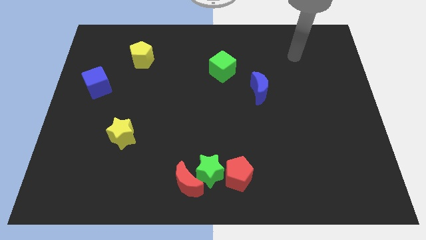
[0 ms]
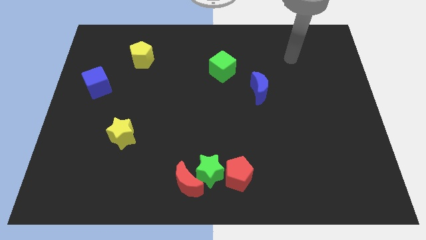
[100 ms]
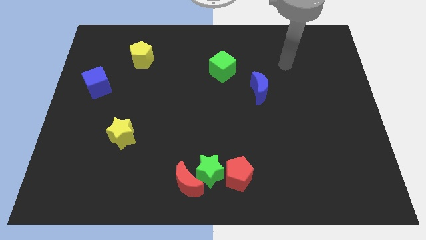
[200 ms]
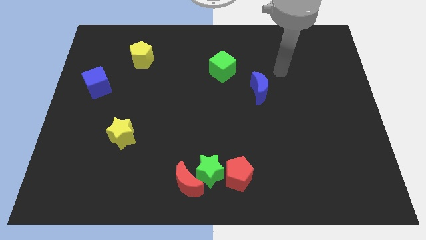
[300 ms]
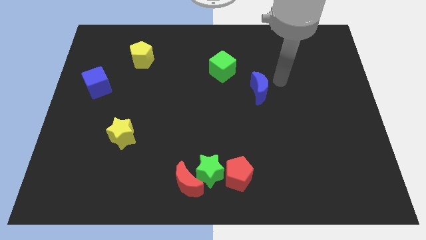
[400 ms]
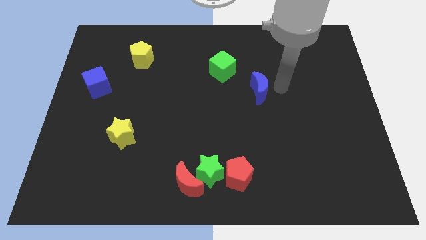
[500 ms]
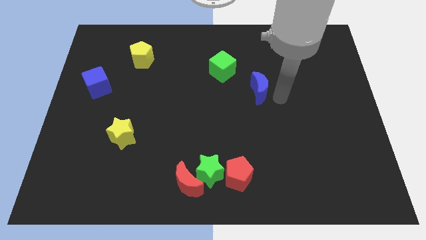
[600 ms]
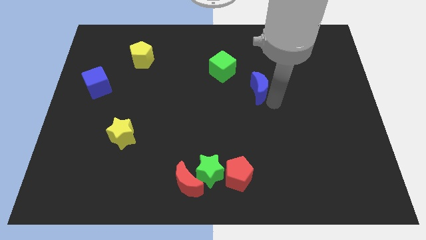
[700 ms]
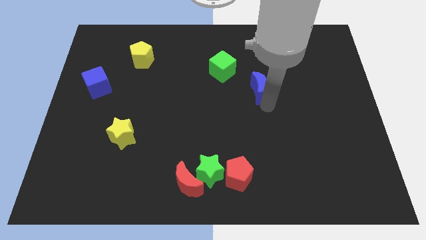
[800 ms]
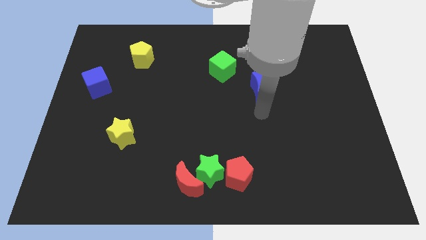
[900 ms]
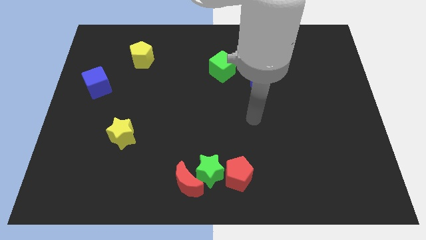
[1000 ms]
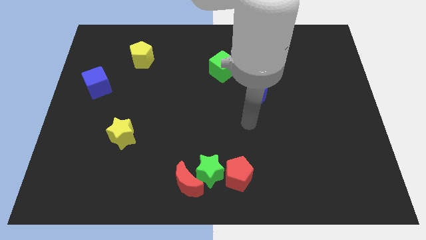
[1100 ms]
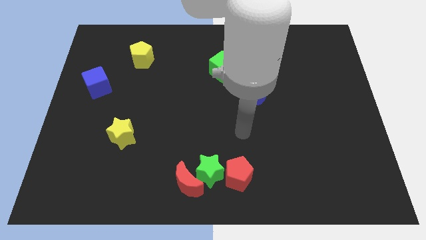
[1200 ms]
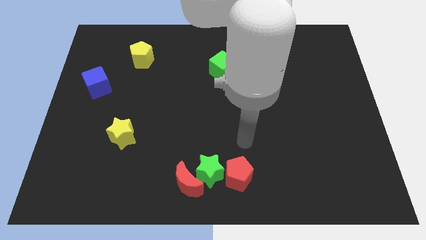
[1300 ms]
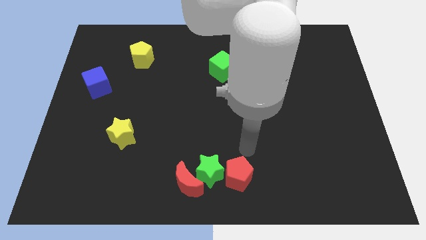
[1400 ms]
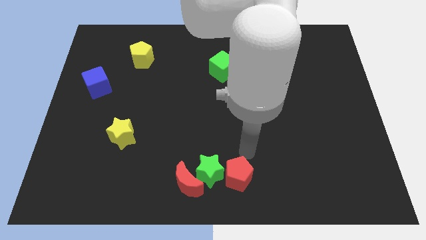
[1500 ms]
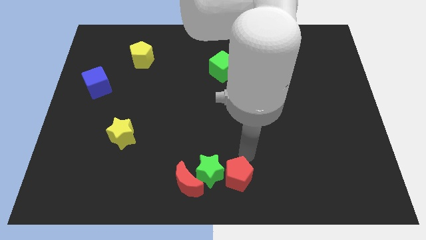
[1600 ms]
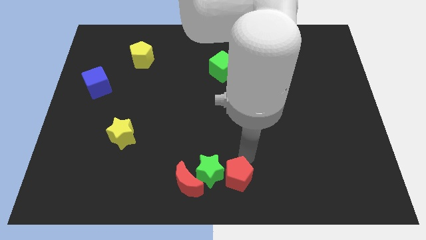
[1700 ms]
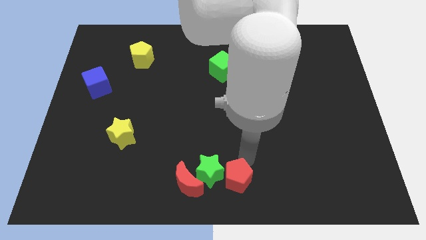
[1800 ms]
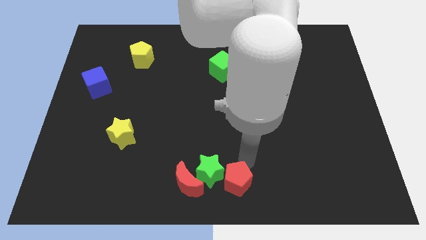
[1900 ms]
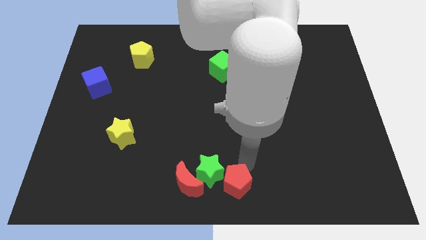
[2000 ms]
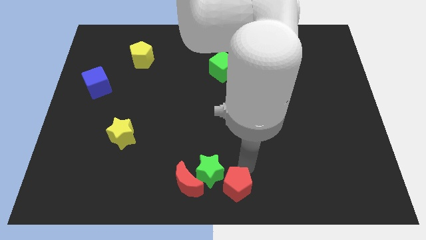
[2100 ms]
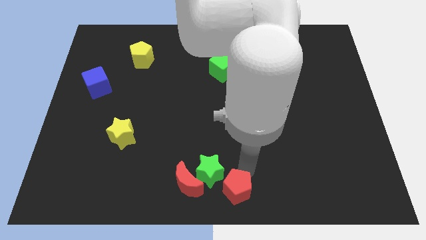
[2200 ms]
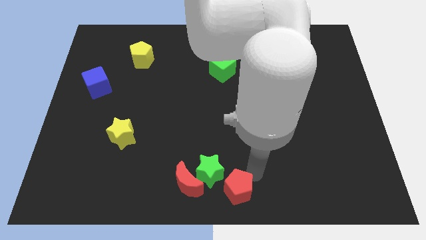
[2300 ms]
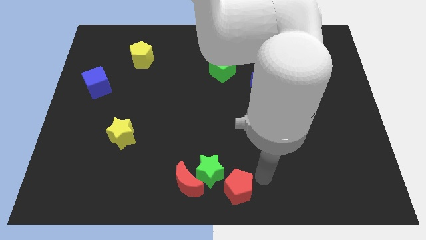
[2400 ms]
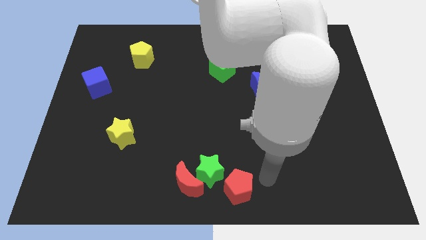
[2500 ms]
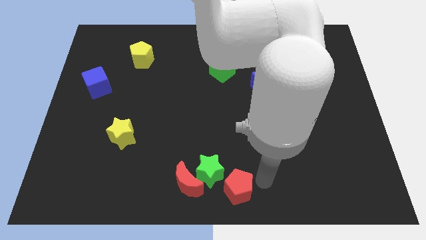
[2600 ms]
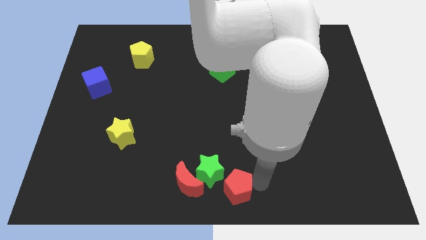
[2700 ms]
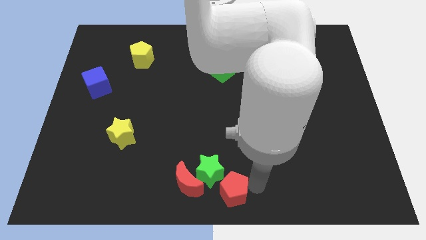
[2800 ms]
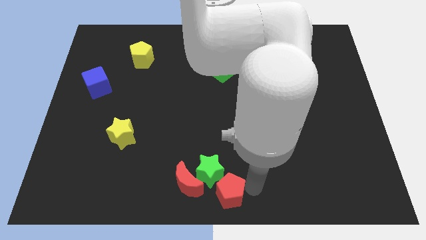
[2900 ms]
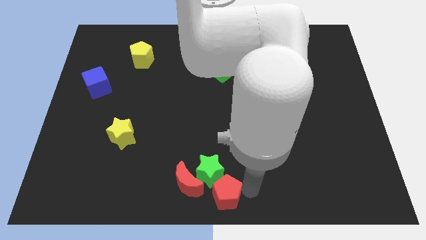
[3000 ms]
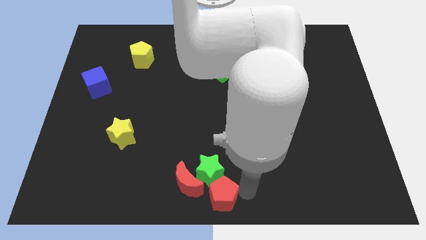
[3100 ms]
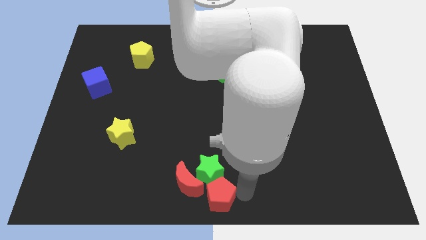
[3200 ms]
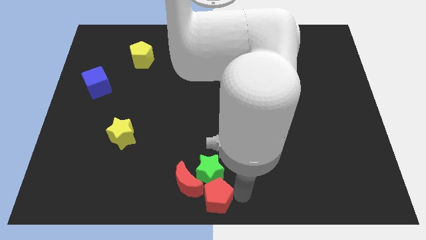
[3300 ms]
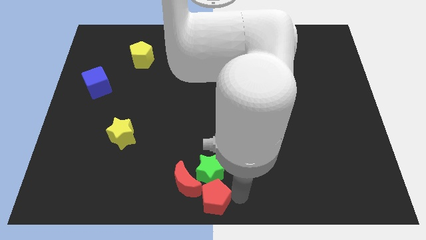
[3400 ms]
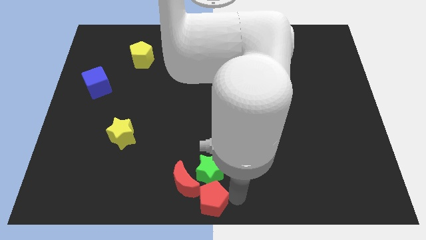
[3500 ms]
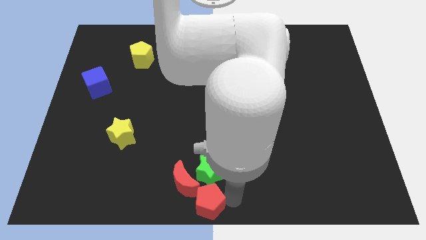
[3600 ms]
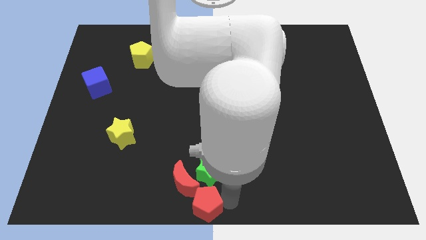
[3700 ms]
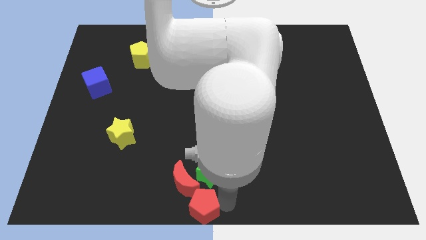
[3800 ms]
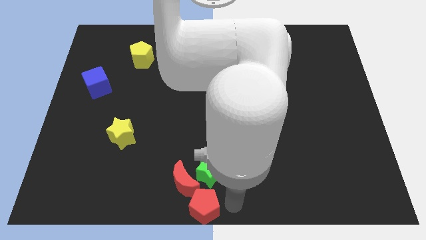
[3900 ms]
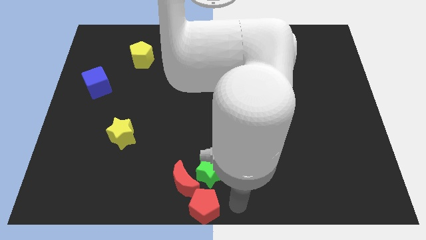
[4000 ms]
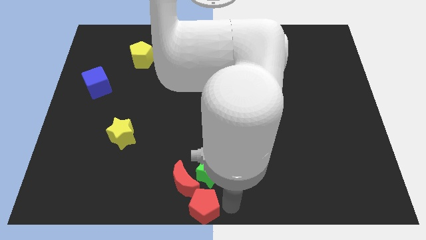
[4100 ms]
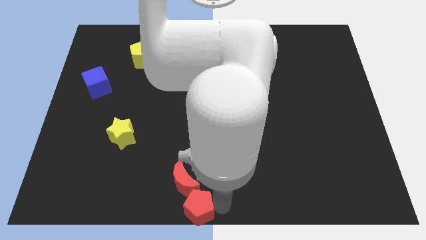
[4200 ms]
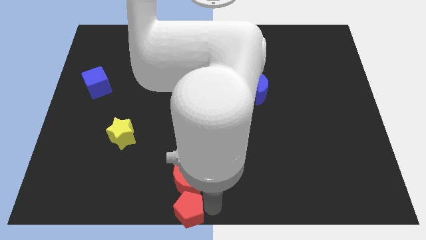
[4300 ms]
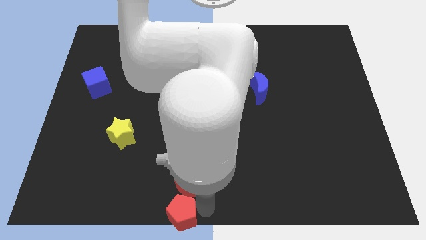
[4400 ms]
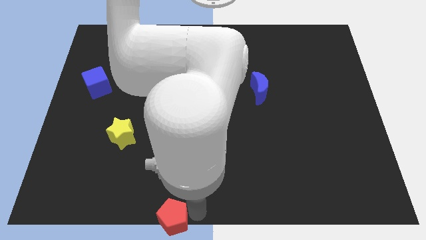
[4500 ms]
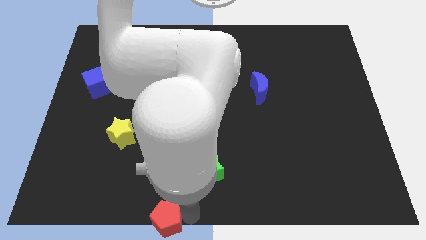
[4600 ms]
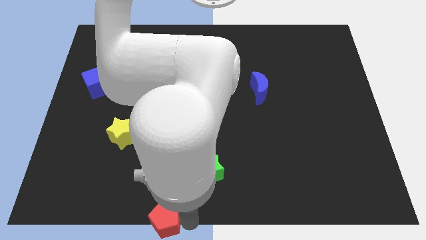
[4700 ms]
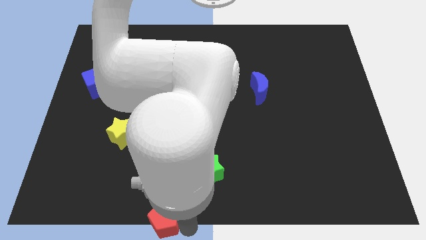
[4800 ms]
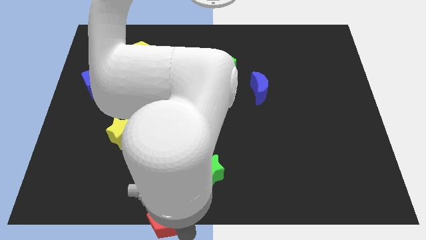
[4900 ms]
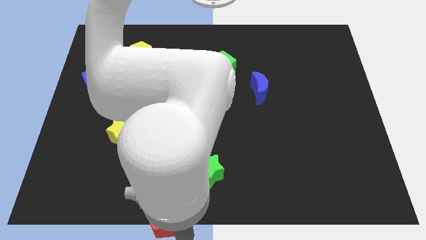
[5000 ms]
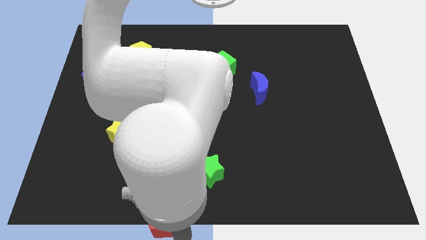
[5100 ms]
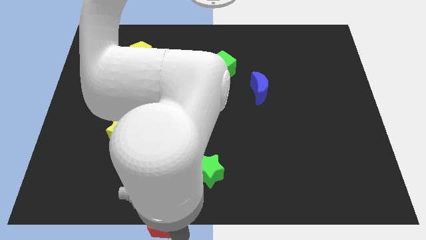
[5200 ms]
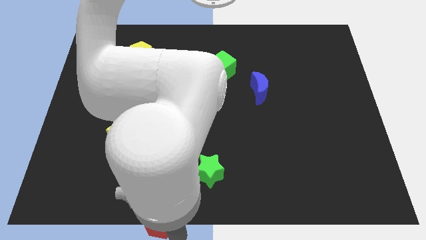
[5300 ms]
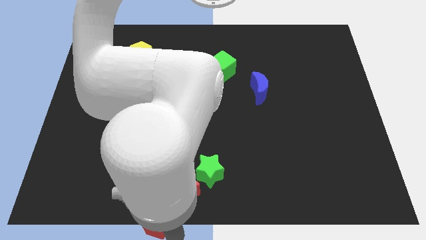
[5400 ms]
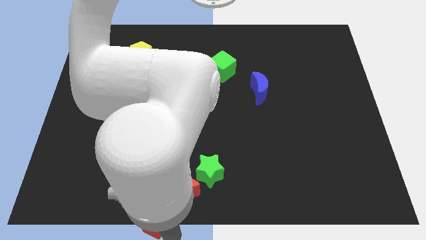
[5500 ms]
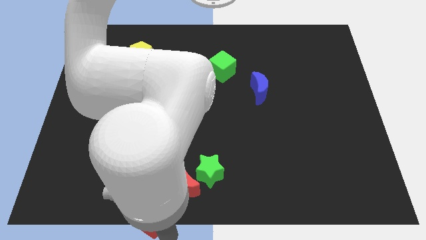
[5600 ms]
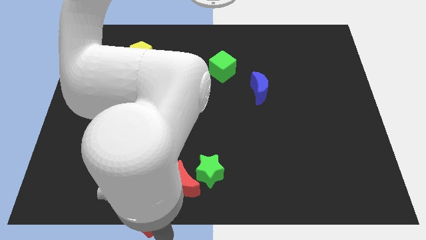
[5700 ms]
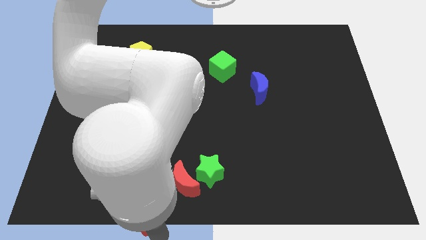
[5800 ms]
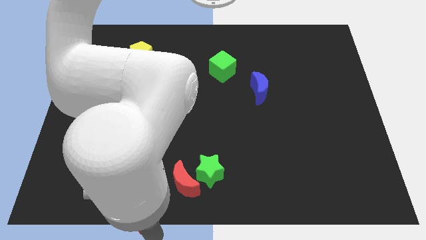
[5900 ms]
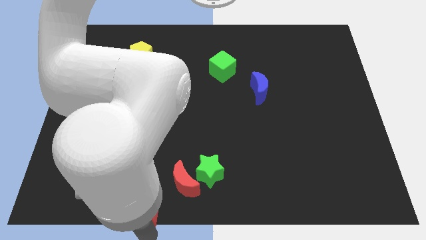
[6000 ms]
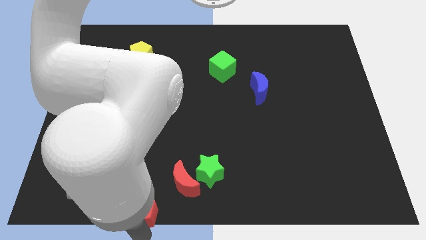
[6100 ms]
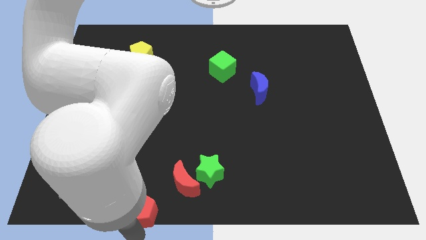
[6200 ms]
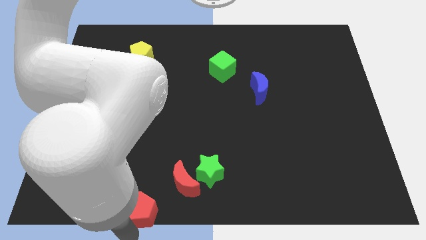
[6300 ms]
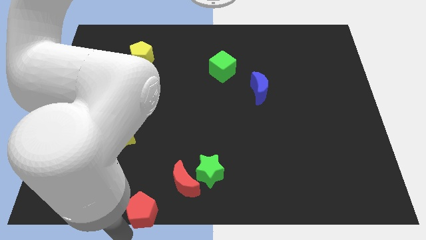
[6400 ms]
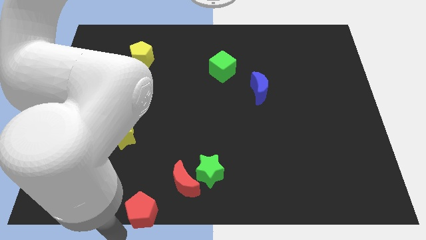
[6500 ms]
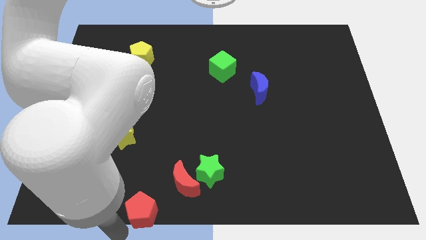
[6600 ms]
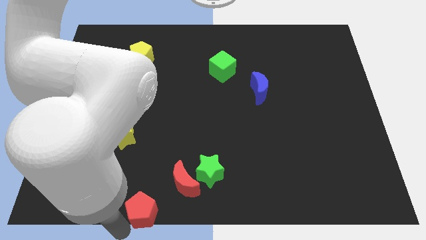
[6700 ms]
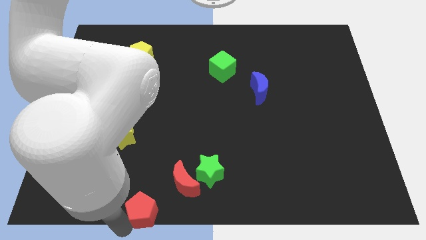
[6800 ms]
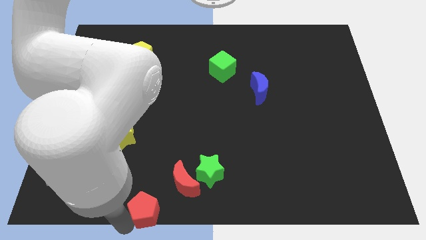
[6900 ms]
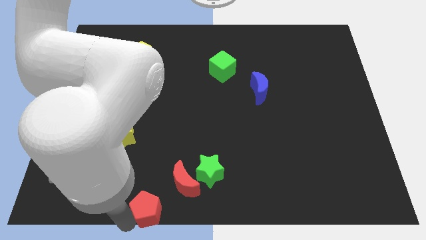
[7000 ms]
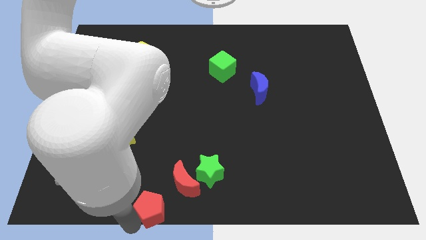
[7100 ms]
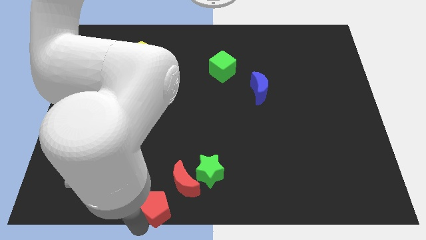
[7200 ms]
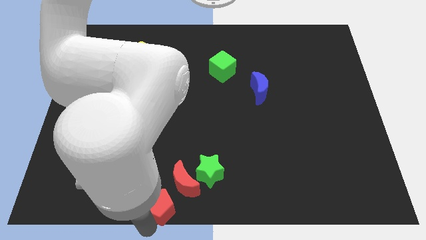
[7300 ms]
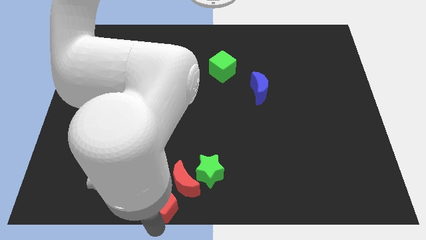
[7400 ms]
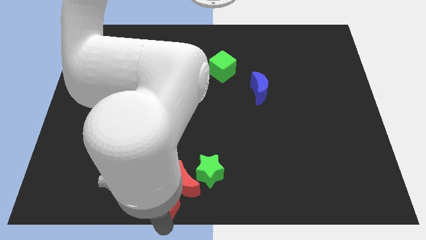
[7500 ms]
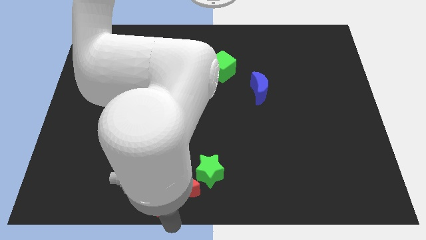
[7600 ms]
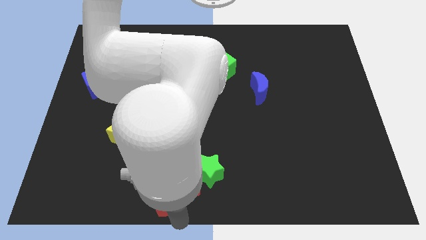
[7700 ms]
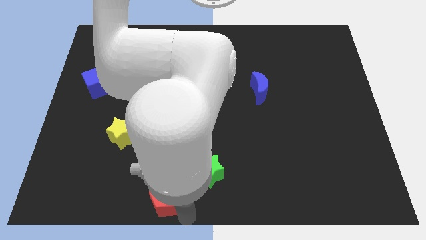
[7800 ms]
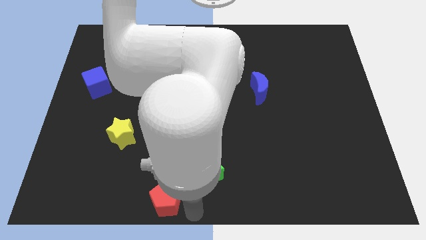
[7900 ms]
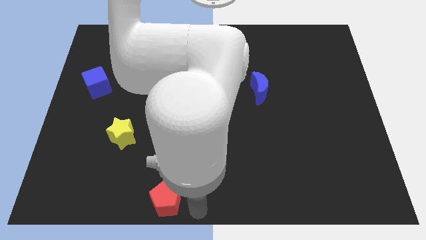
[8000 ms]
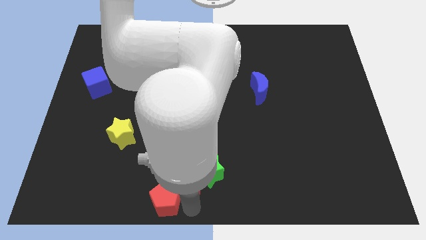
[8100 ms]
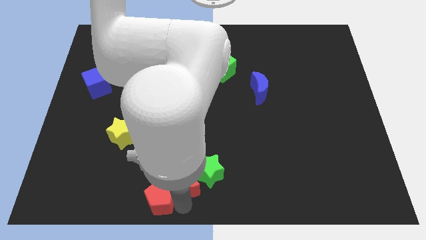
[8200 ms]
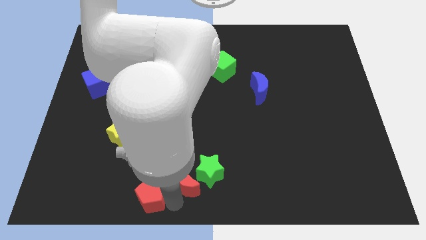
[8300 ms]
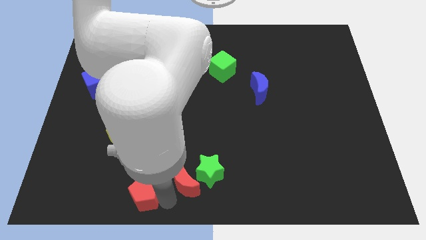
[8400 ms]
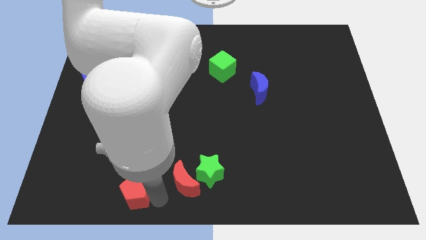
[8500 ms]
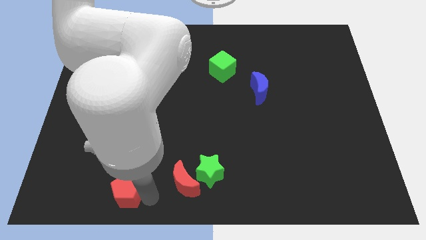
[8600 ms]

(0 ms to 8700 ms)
put the red pentagon below the yellow star
